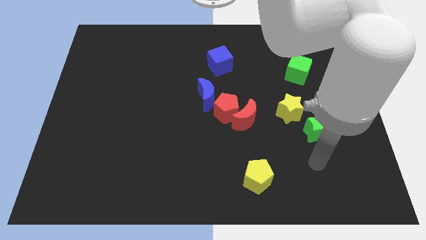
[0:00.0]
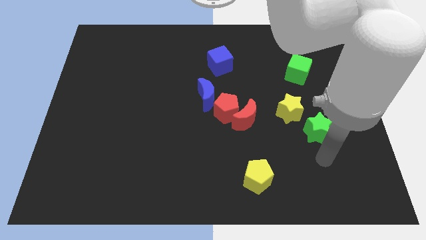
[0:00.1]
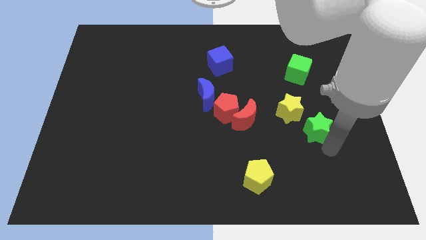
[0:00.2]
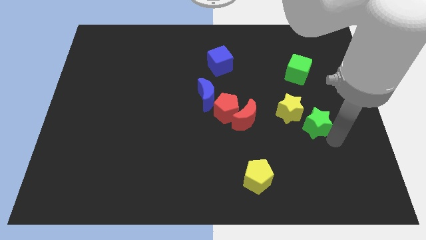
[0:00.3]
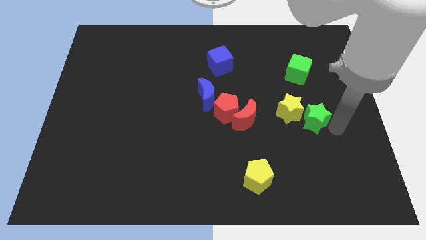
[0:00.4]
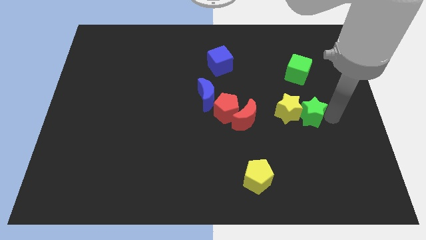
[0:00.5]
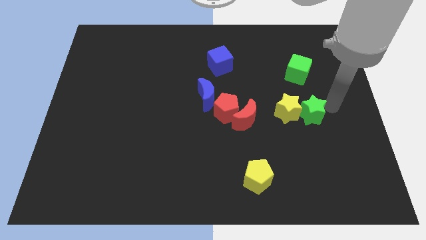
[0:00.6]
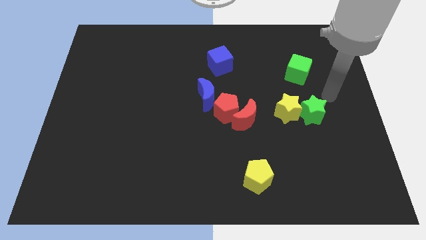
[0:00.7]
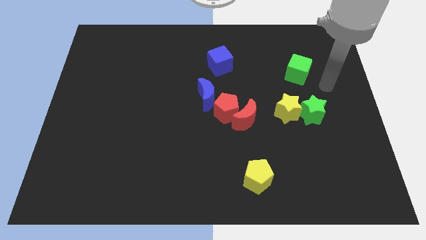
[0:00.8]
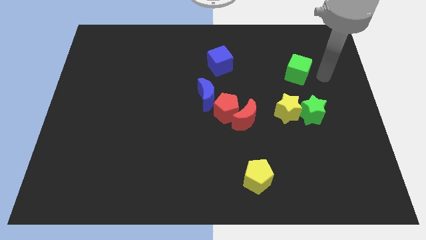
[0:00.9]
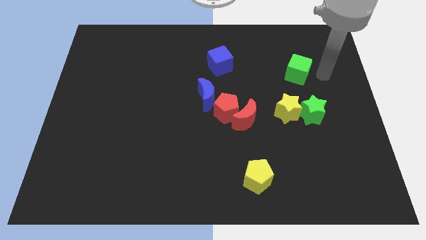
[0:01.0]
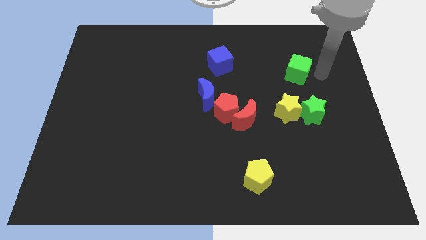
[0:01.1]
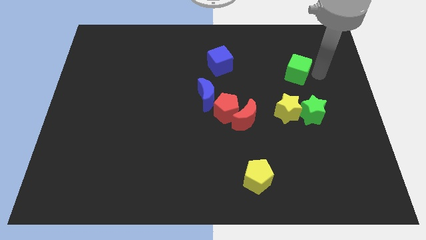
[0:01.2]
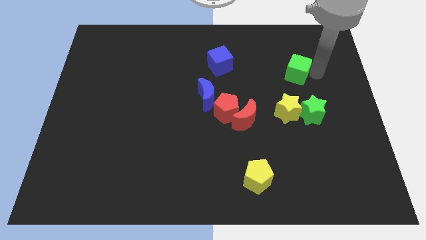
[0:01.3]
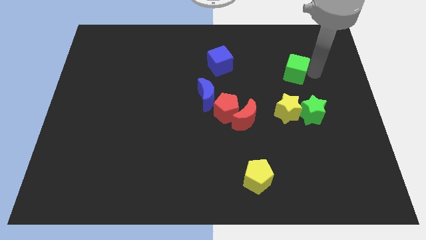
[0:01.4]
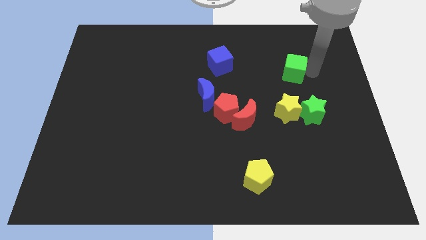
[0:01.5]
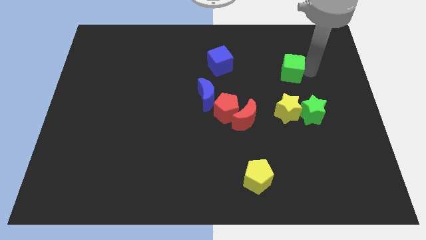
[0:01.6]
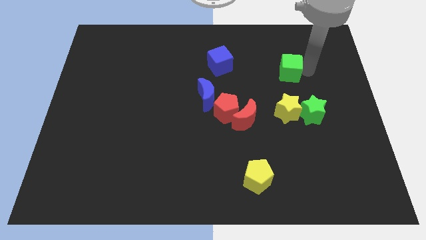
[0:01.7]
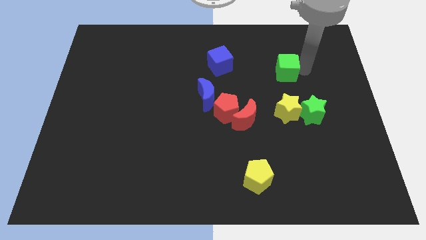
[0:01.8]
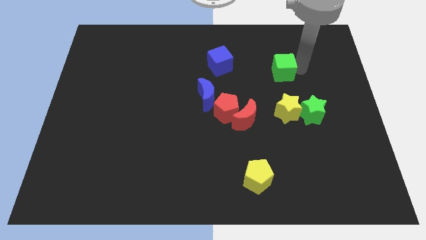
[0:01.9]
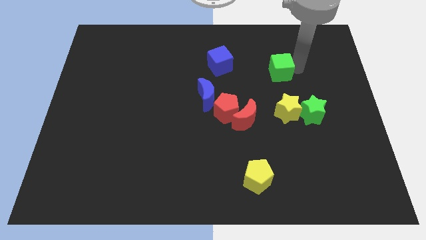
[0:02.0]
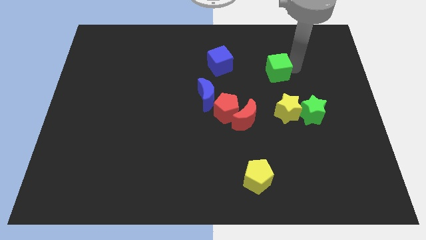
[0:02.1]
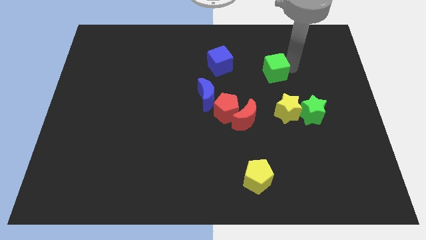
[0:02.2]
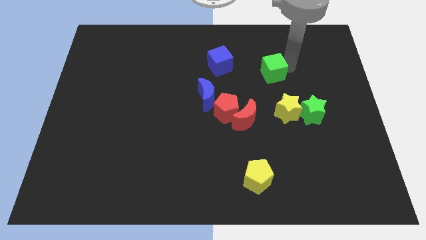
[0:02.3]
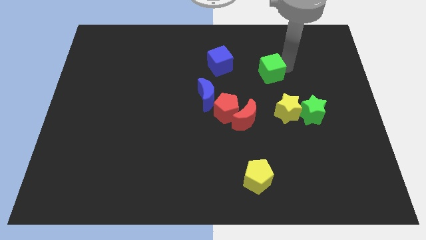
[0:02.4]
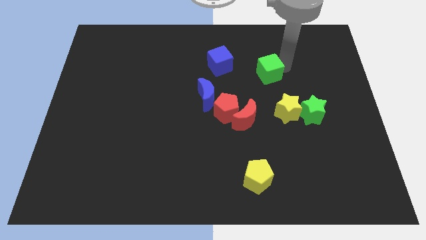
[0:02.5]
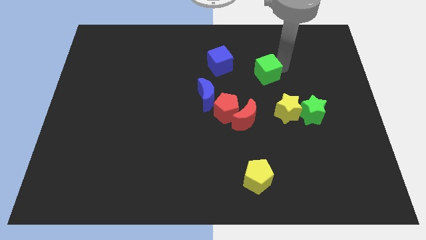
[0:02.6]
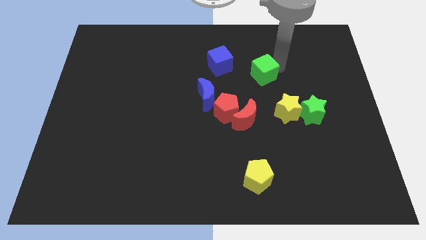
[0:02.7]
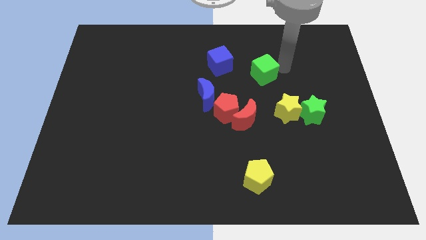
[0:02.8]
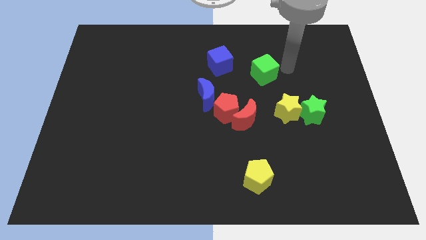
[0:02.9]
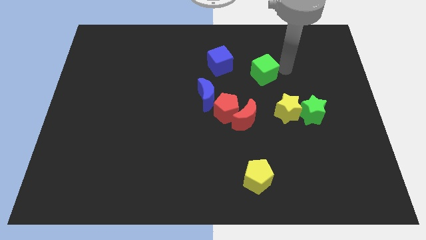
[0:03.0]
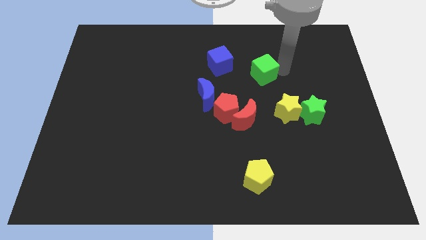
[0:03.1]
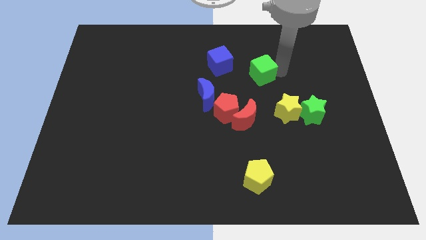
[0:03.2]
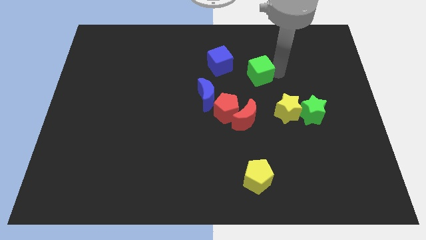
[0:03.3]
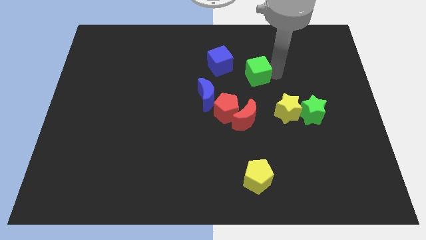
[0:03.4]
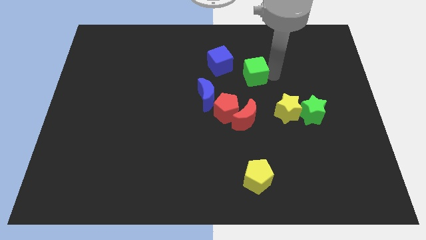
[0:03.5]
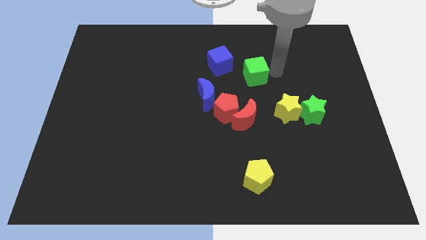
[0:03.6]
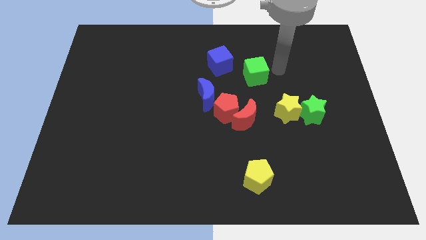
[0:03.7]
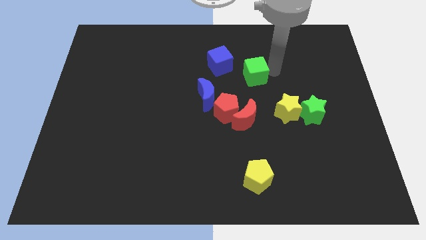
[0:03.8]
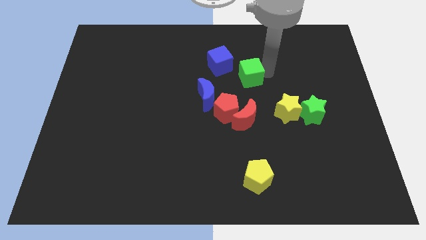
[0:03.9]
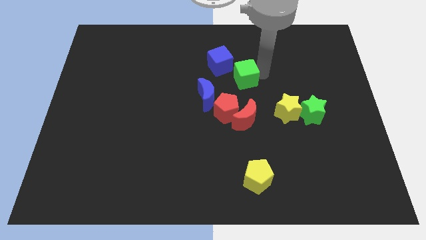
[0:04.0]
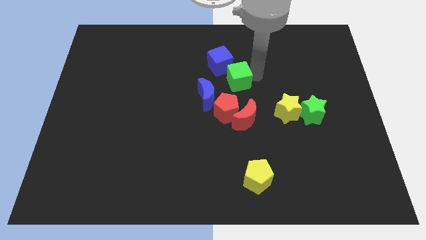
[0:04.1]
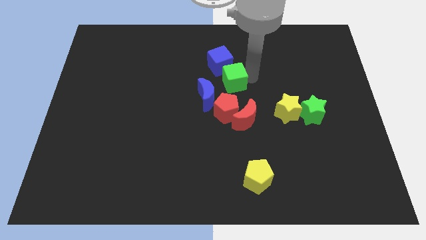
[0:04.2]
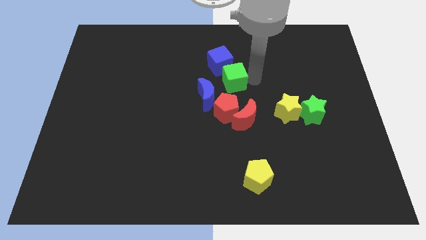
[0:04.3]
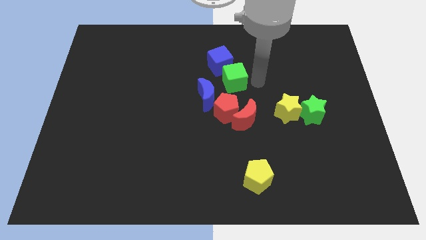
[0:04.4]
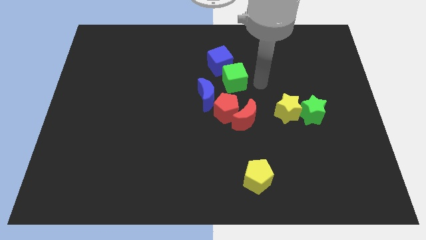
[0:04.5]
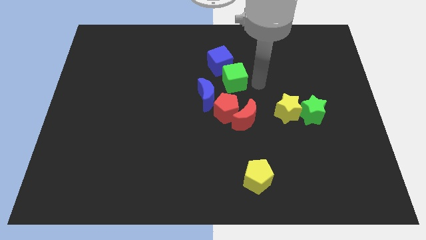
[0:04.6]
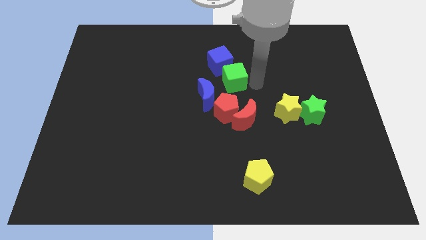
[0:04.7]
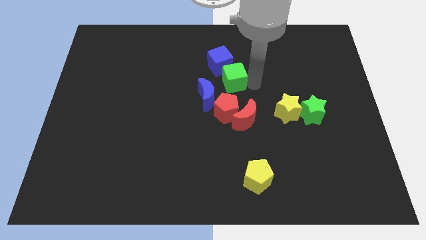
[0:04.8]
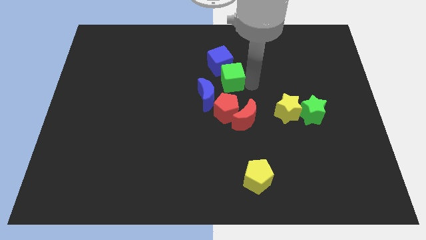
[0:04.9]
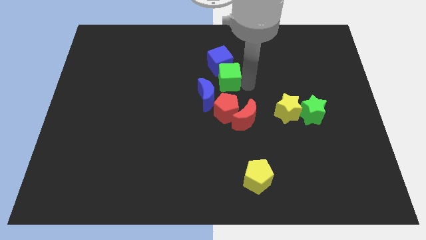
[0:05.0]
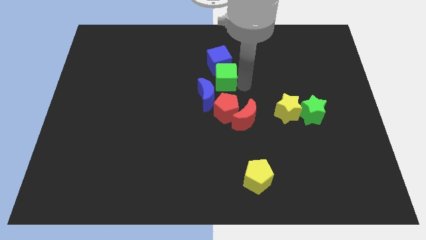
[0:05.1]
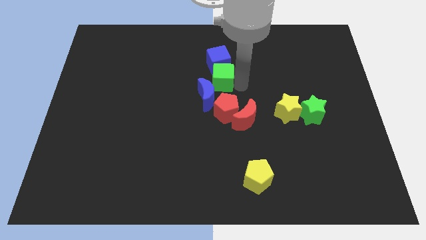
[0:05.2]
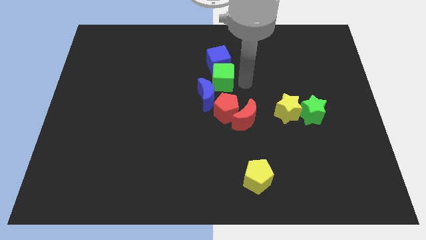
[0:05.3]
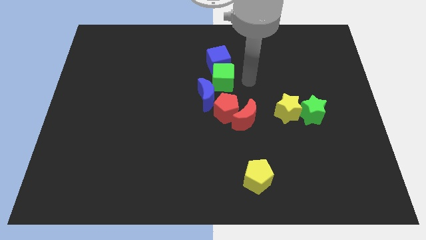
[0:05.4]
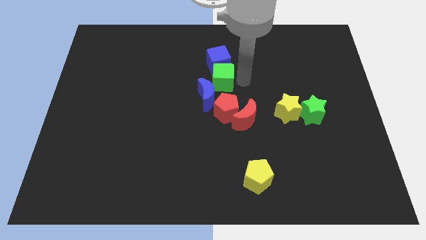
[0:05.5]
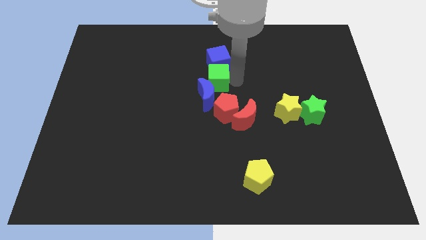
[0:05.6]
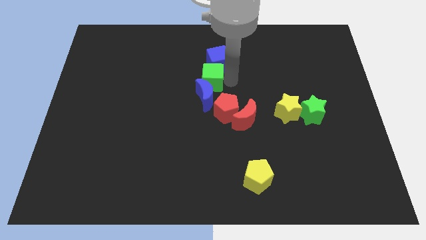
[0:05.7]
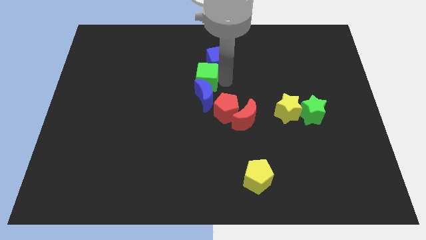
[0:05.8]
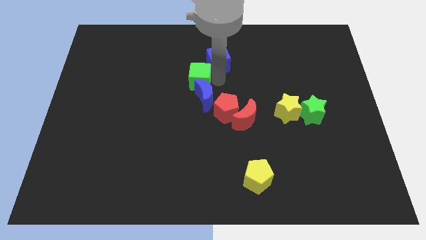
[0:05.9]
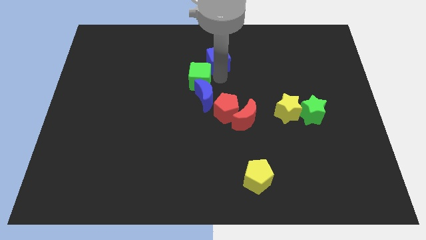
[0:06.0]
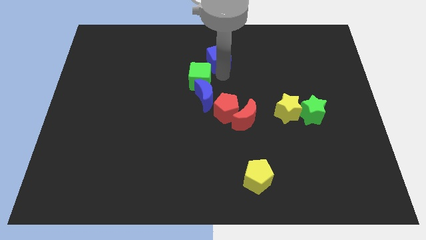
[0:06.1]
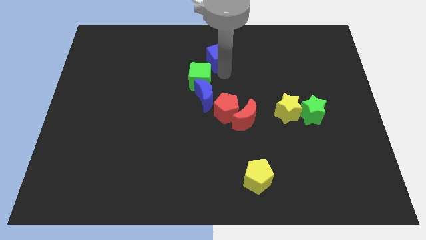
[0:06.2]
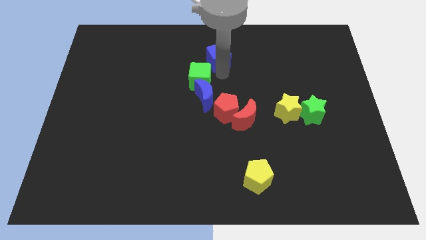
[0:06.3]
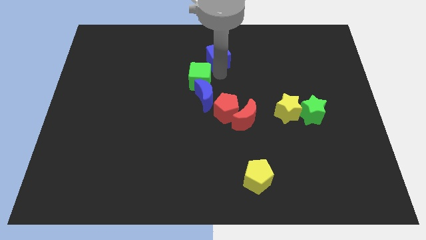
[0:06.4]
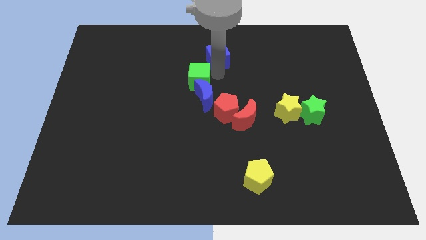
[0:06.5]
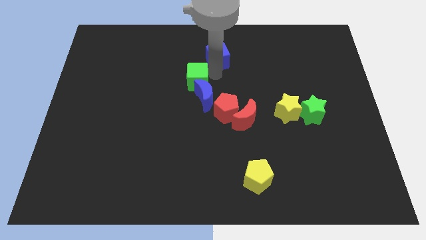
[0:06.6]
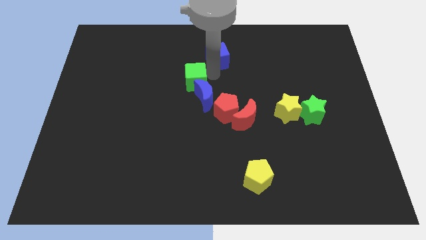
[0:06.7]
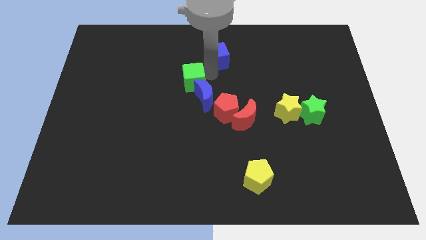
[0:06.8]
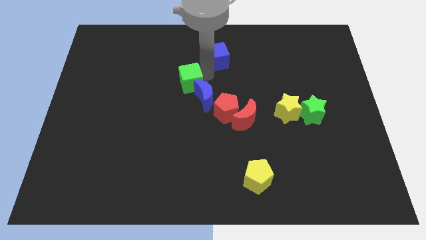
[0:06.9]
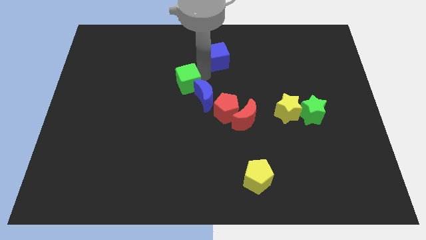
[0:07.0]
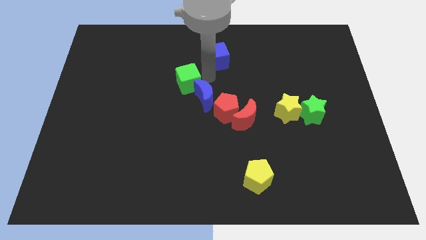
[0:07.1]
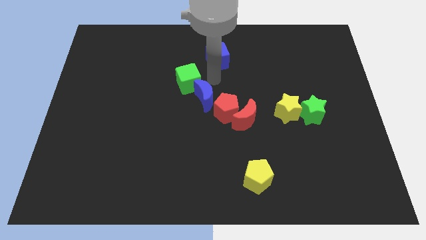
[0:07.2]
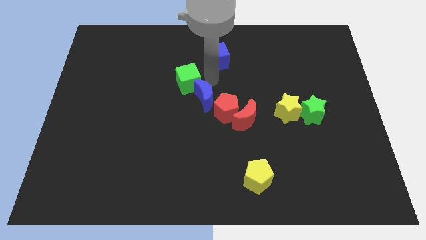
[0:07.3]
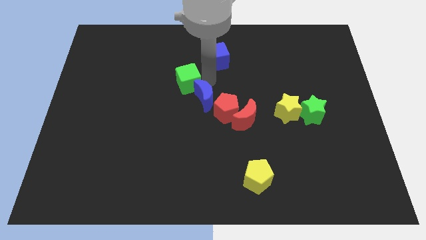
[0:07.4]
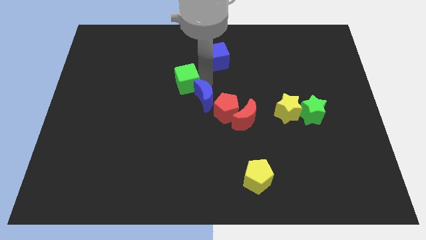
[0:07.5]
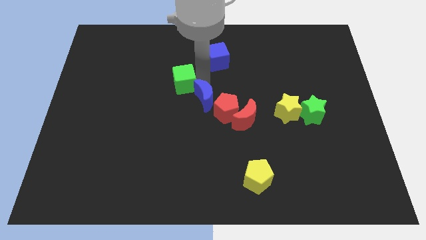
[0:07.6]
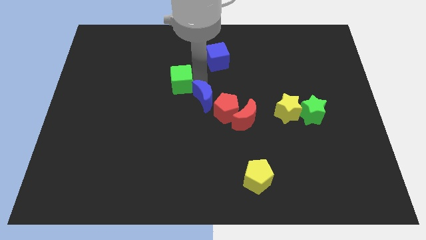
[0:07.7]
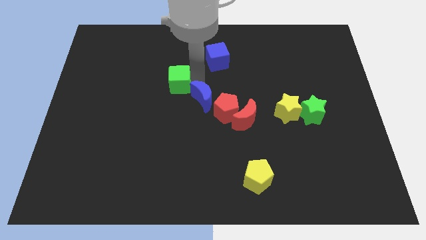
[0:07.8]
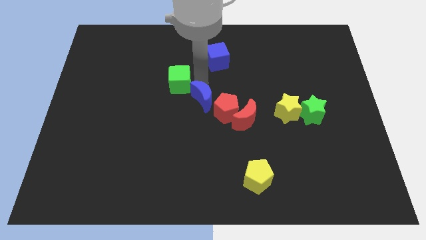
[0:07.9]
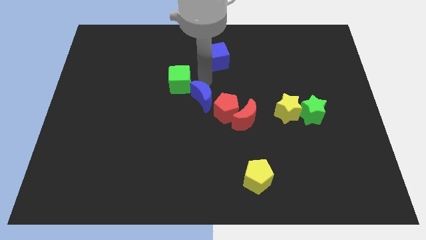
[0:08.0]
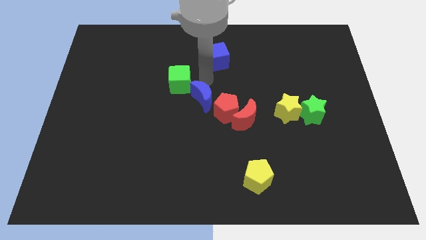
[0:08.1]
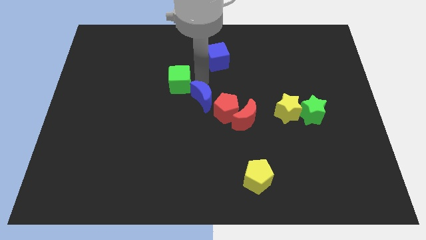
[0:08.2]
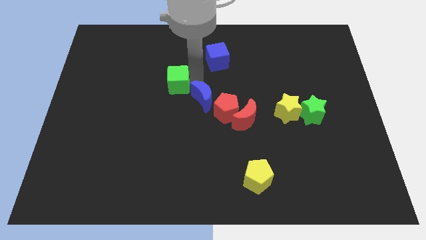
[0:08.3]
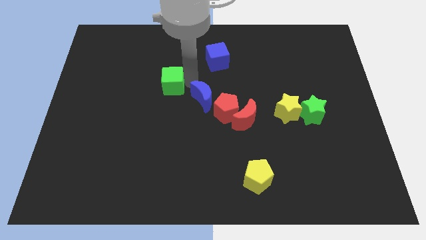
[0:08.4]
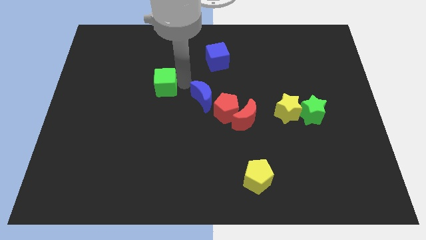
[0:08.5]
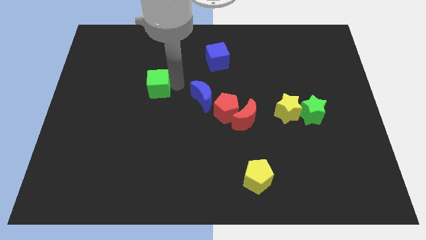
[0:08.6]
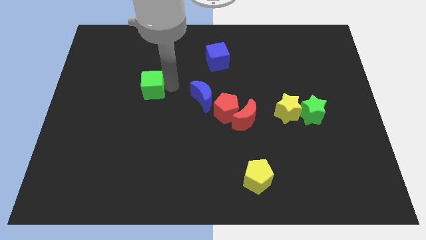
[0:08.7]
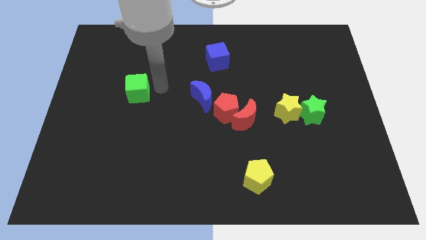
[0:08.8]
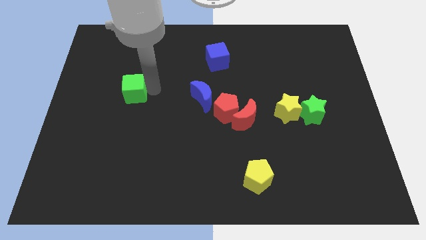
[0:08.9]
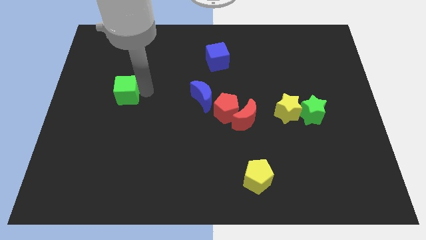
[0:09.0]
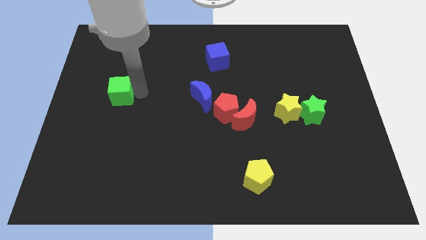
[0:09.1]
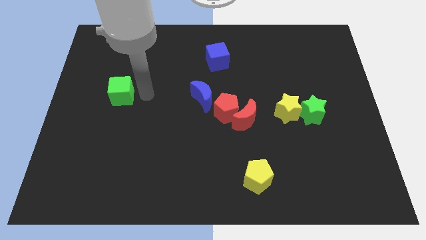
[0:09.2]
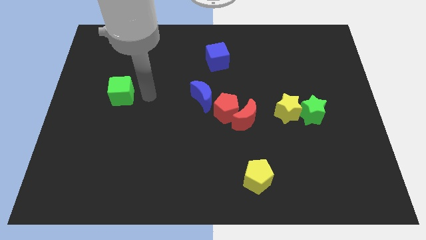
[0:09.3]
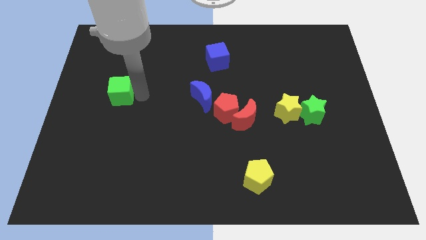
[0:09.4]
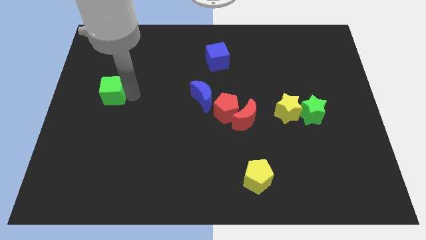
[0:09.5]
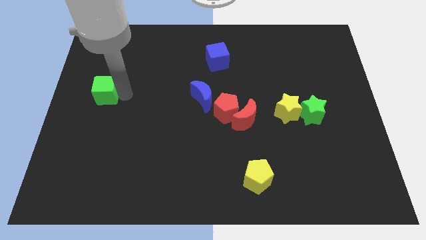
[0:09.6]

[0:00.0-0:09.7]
put the green cube to the left side
